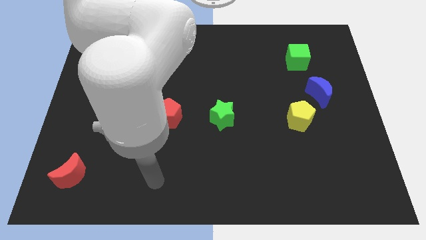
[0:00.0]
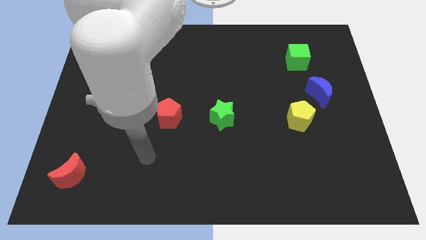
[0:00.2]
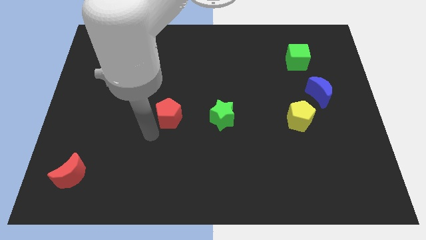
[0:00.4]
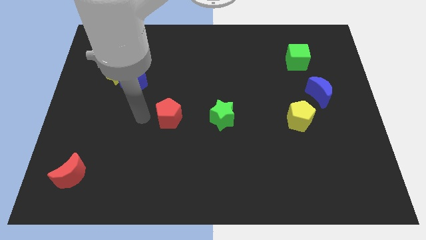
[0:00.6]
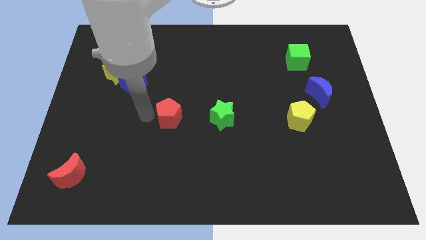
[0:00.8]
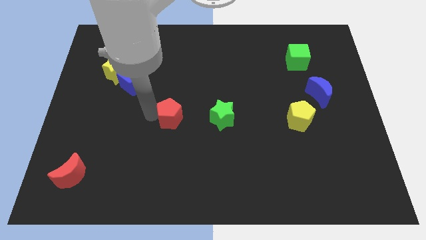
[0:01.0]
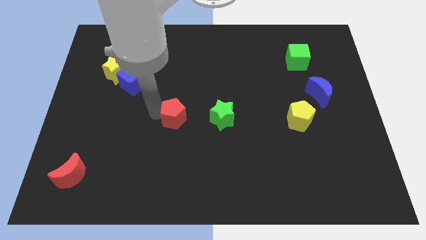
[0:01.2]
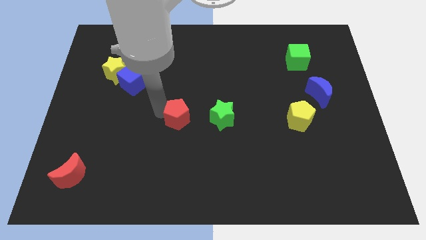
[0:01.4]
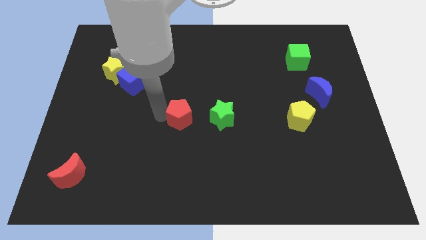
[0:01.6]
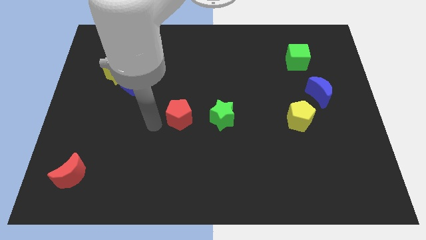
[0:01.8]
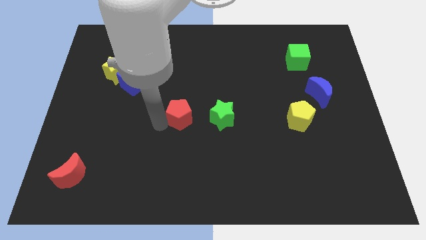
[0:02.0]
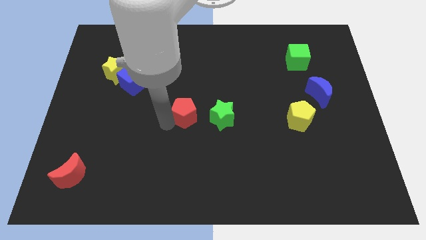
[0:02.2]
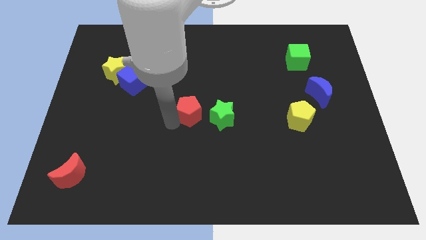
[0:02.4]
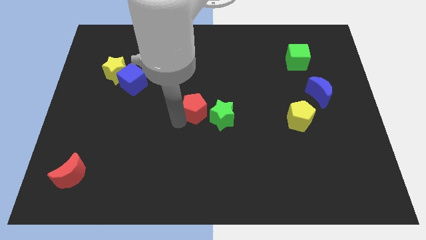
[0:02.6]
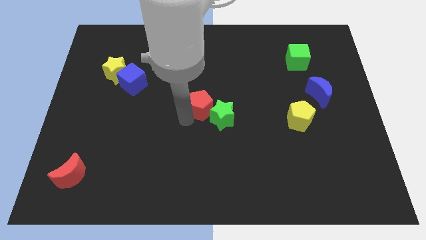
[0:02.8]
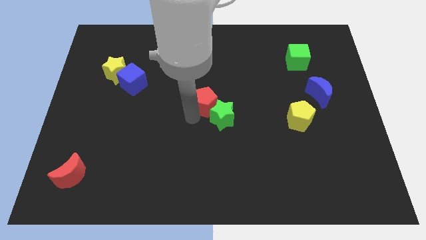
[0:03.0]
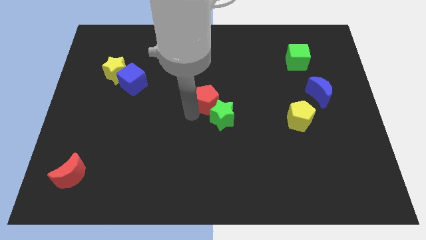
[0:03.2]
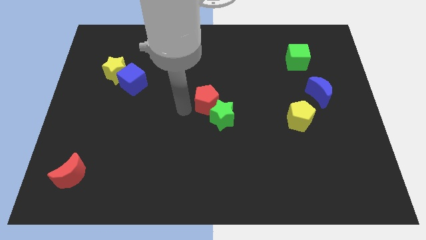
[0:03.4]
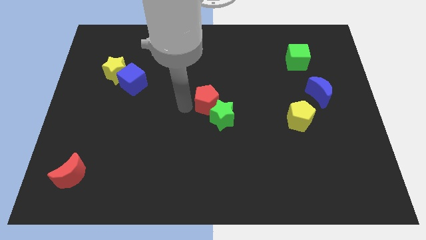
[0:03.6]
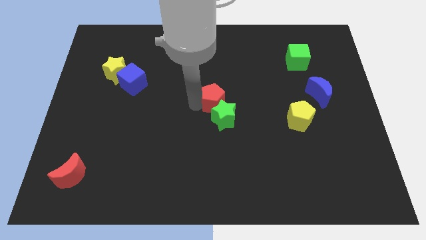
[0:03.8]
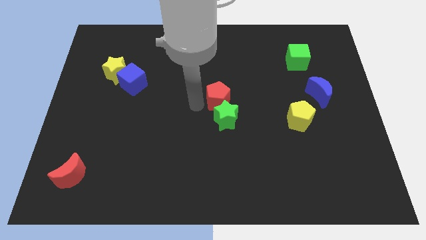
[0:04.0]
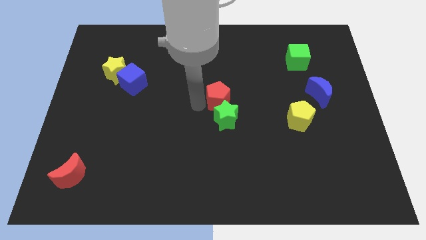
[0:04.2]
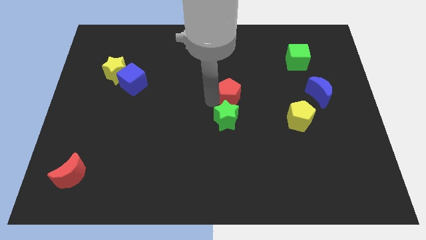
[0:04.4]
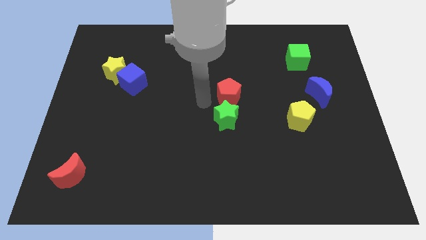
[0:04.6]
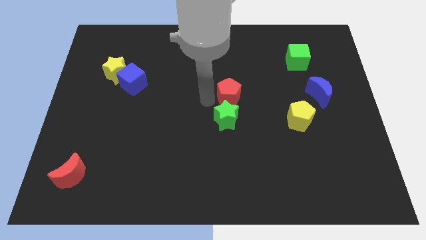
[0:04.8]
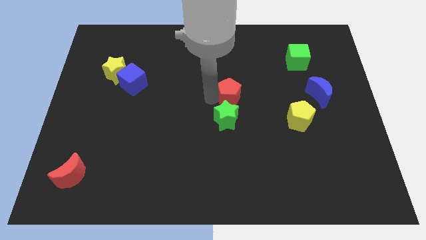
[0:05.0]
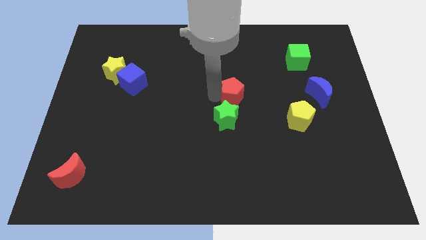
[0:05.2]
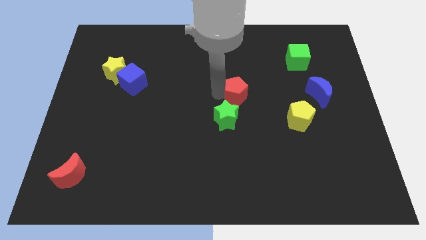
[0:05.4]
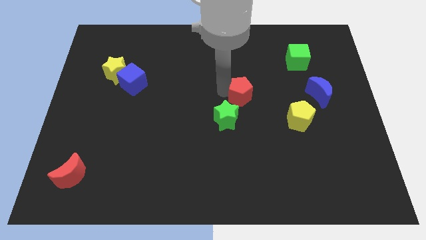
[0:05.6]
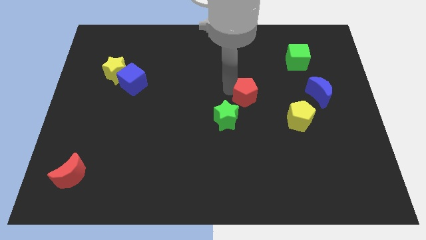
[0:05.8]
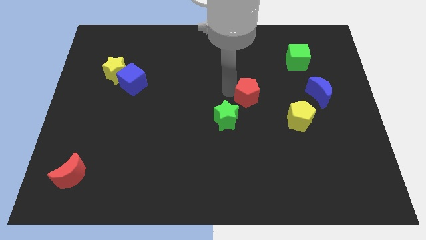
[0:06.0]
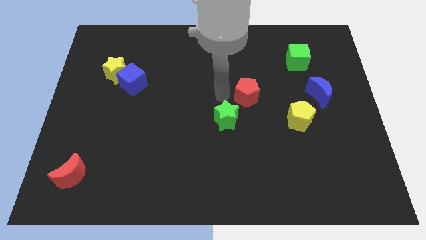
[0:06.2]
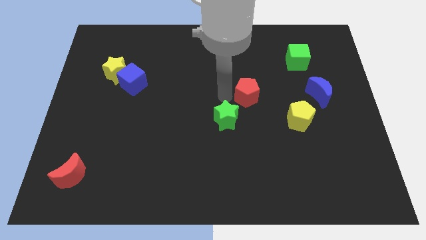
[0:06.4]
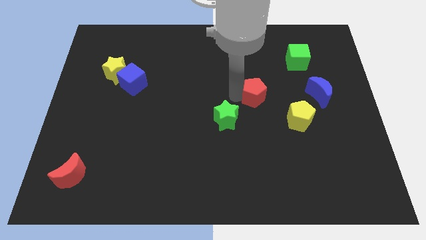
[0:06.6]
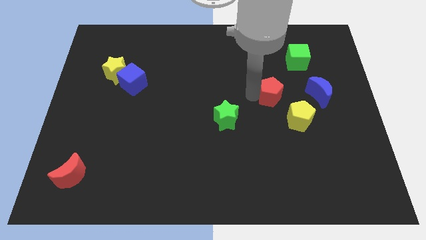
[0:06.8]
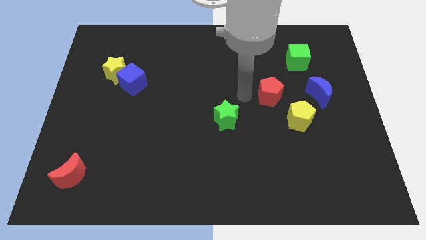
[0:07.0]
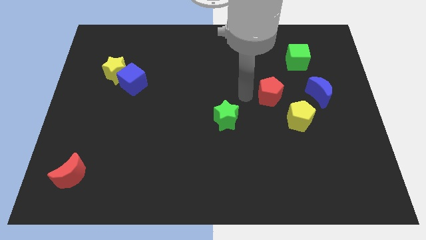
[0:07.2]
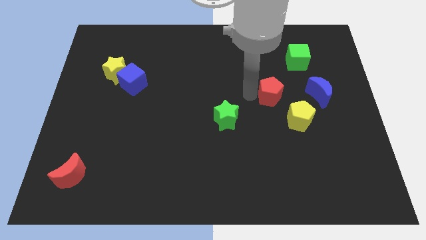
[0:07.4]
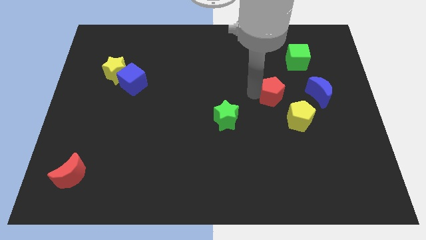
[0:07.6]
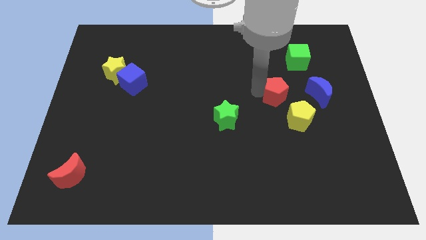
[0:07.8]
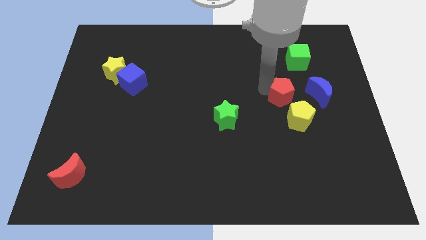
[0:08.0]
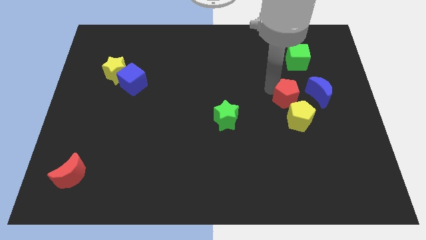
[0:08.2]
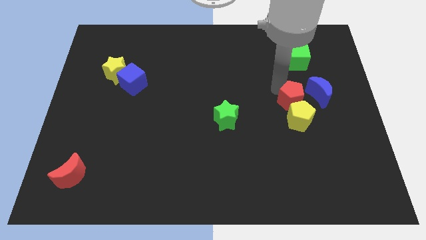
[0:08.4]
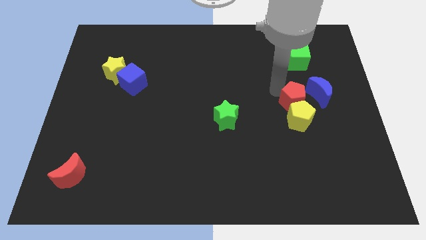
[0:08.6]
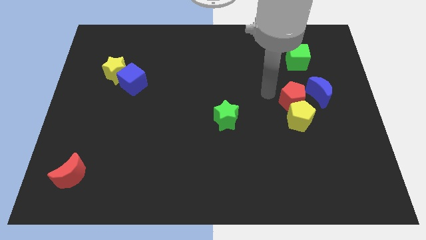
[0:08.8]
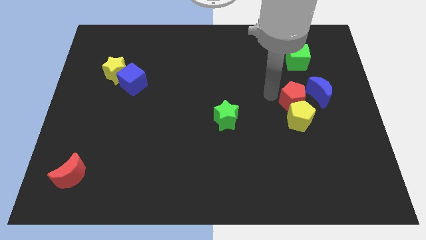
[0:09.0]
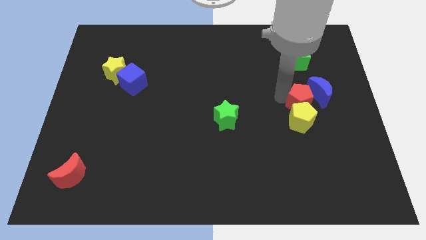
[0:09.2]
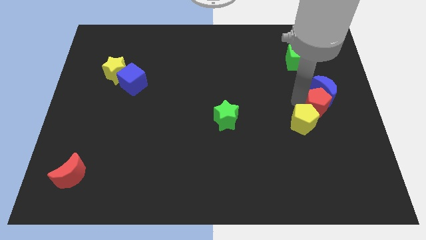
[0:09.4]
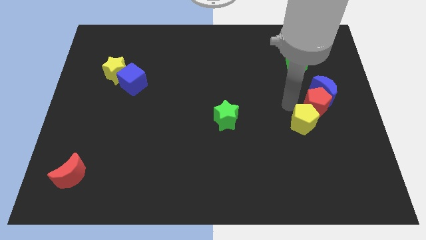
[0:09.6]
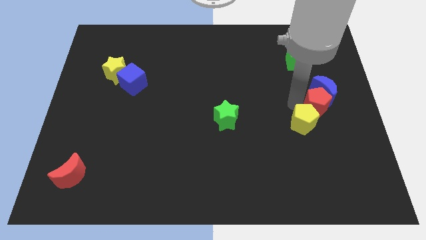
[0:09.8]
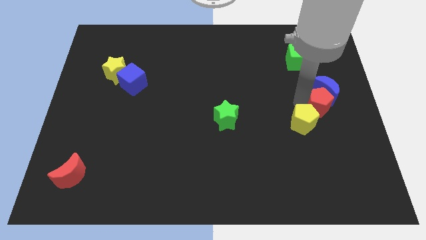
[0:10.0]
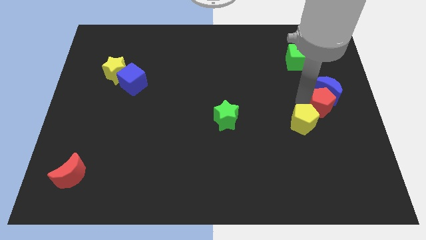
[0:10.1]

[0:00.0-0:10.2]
put the red pentagon to the center right

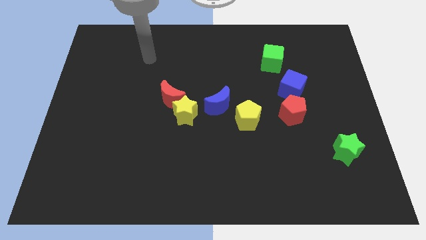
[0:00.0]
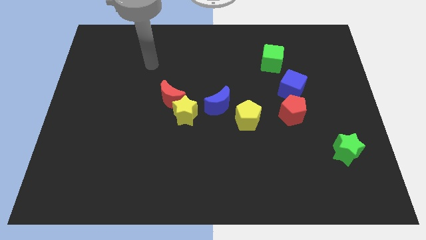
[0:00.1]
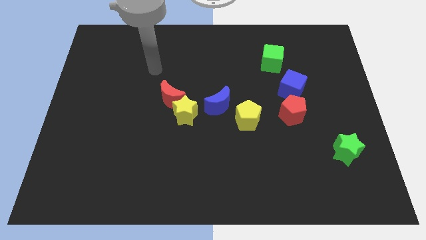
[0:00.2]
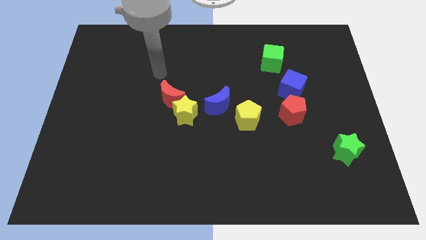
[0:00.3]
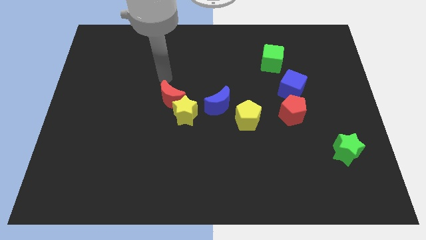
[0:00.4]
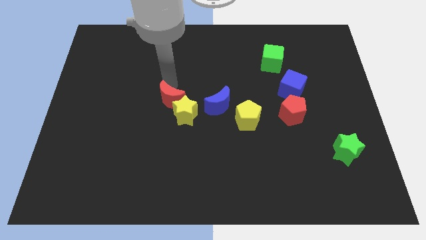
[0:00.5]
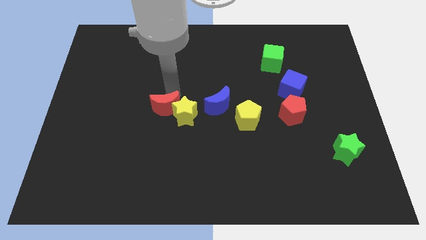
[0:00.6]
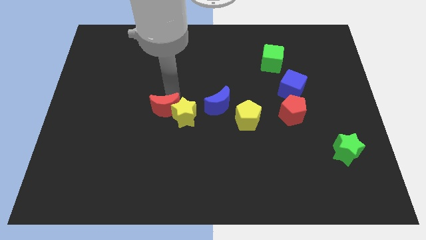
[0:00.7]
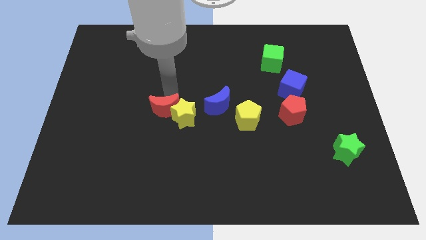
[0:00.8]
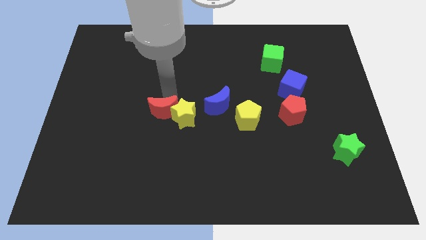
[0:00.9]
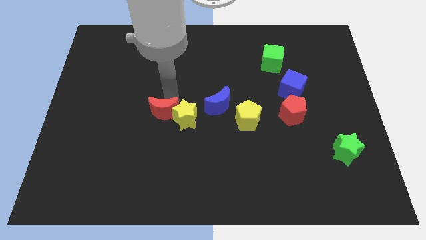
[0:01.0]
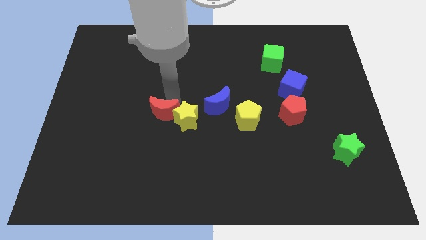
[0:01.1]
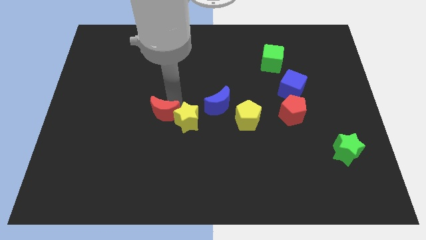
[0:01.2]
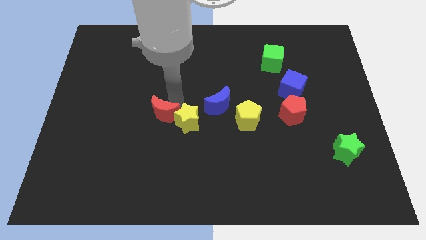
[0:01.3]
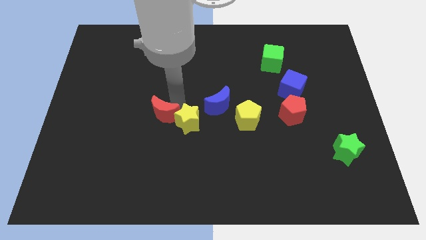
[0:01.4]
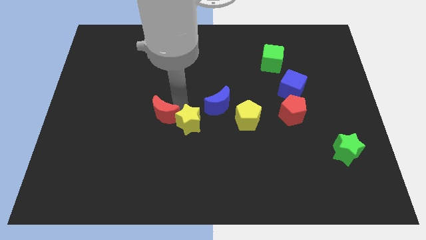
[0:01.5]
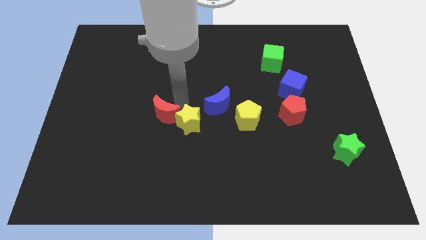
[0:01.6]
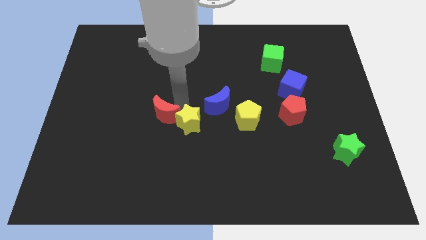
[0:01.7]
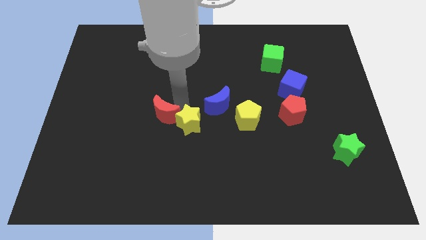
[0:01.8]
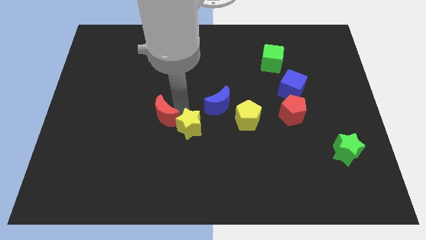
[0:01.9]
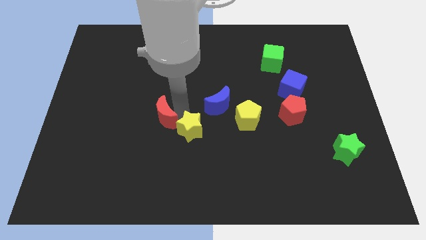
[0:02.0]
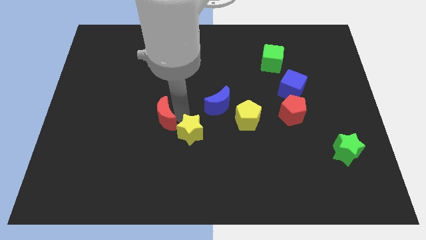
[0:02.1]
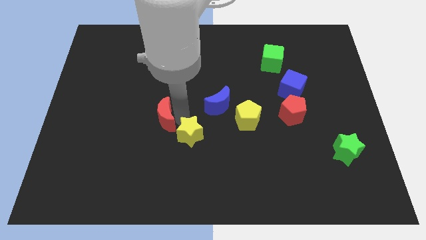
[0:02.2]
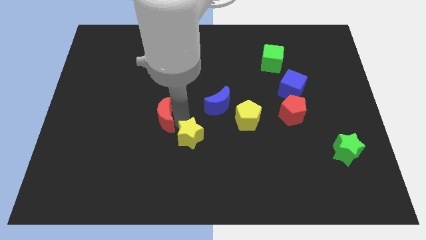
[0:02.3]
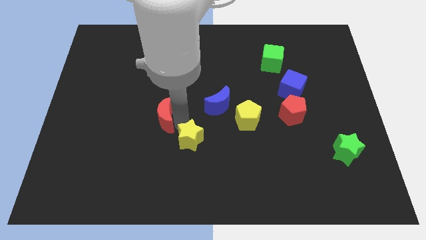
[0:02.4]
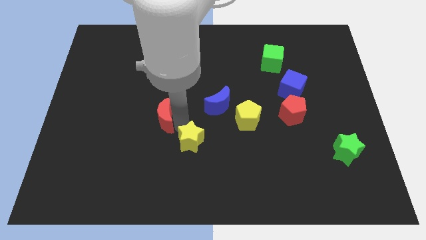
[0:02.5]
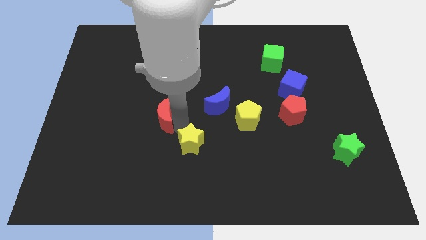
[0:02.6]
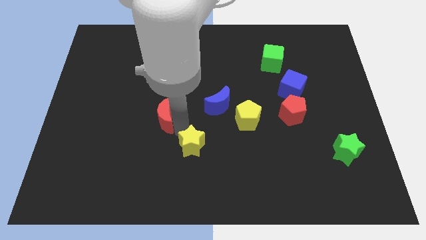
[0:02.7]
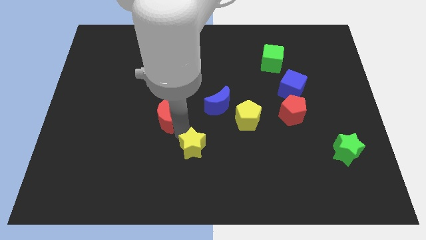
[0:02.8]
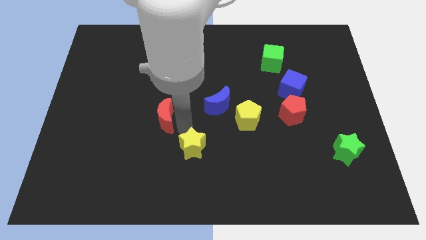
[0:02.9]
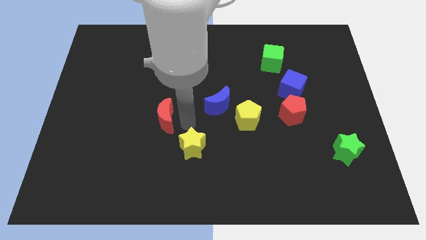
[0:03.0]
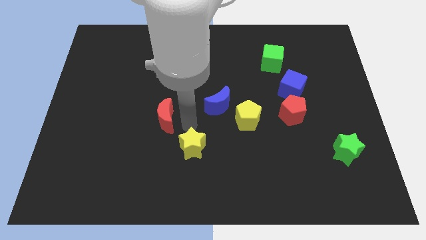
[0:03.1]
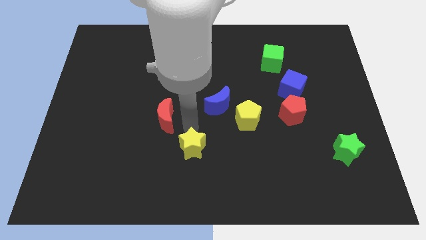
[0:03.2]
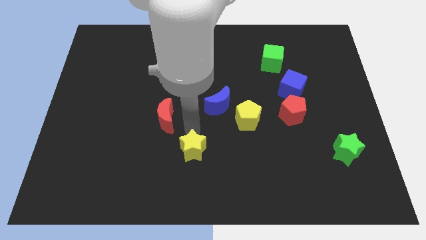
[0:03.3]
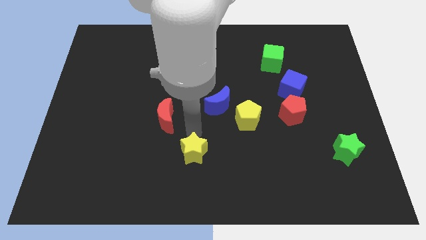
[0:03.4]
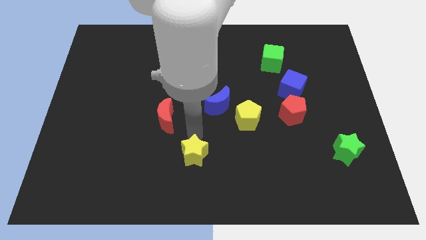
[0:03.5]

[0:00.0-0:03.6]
move the yellow star to the bottom side
